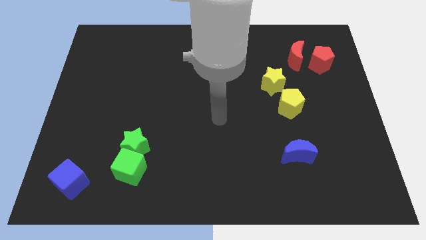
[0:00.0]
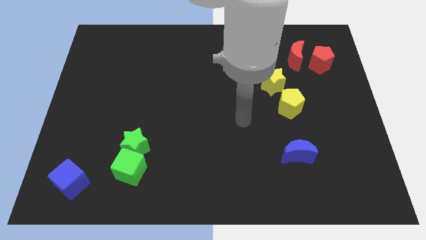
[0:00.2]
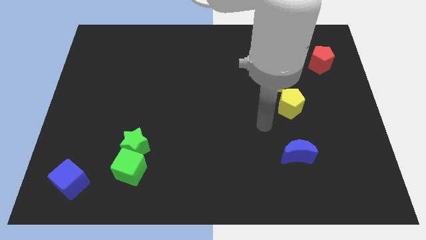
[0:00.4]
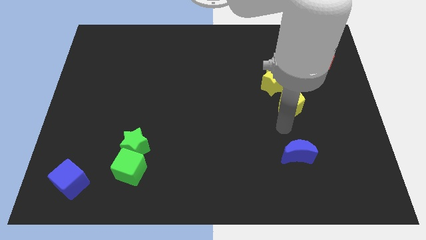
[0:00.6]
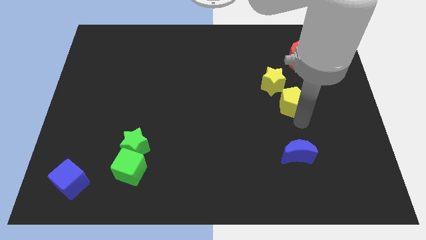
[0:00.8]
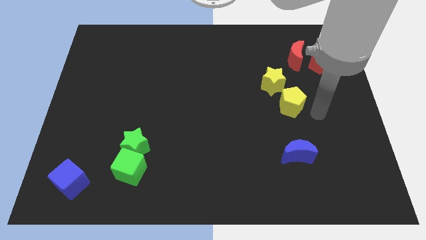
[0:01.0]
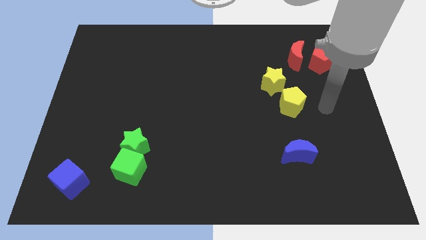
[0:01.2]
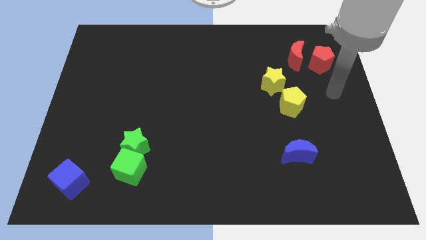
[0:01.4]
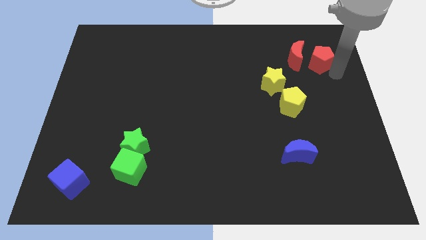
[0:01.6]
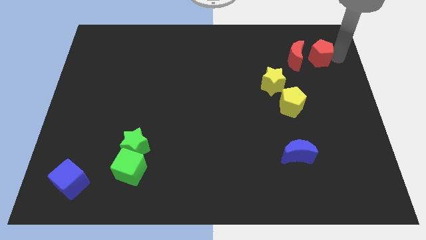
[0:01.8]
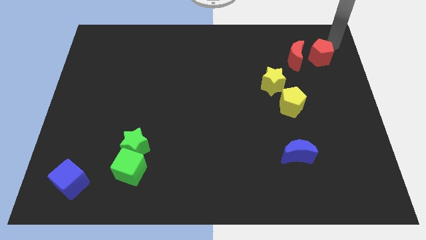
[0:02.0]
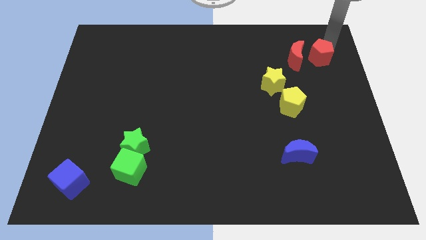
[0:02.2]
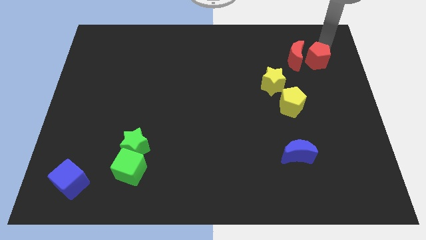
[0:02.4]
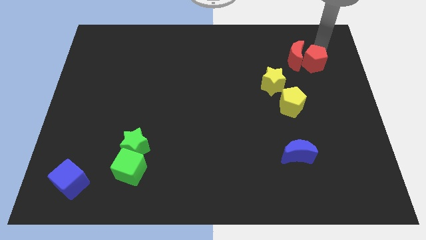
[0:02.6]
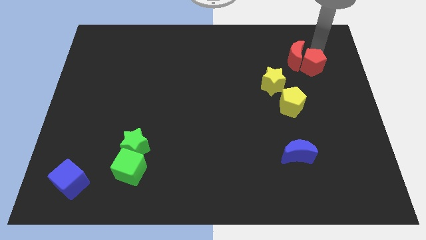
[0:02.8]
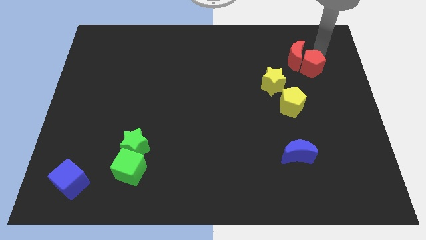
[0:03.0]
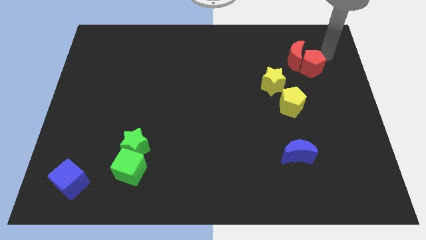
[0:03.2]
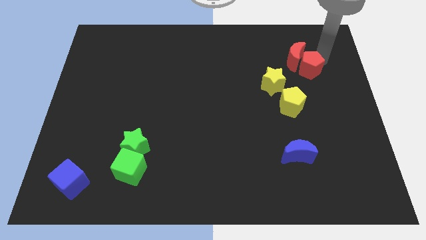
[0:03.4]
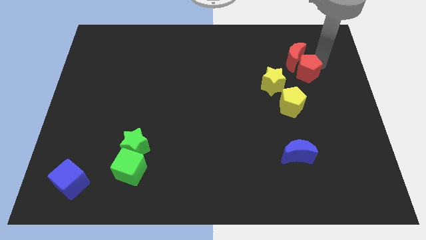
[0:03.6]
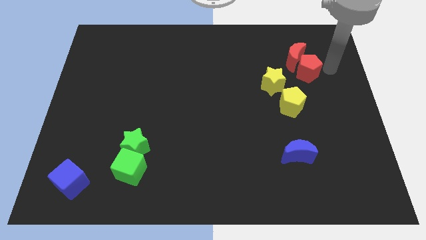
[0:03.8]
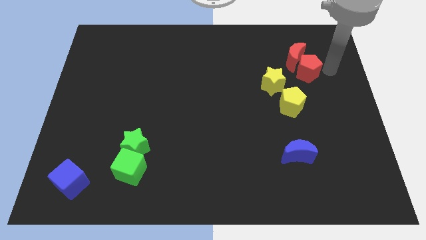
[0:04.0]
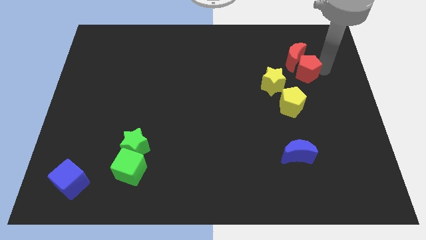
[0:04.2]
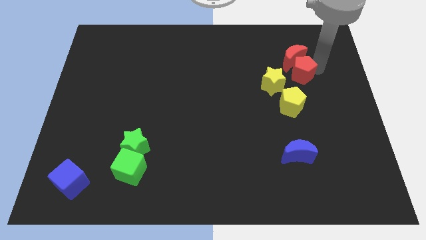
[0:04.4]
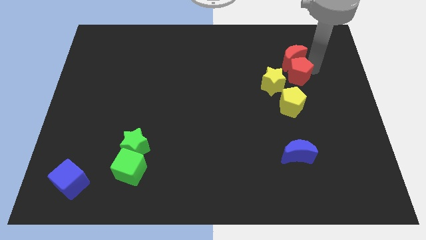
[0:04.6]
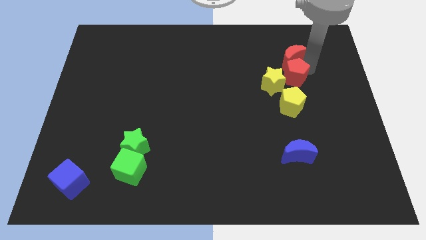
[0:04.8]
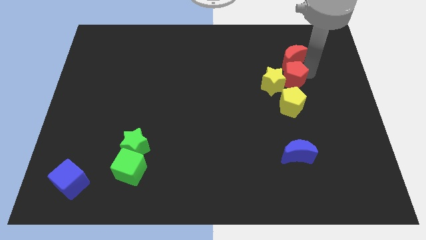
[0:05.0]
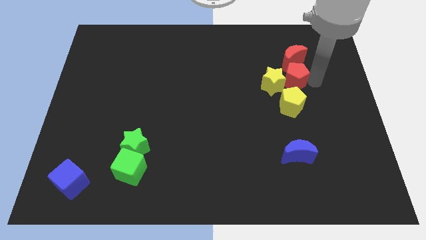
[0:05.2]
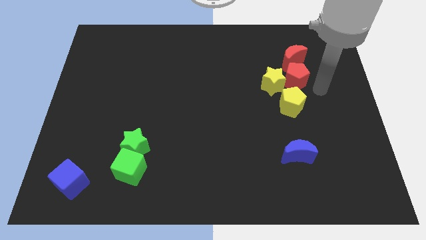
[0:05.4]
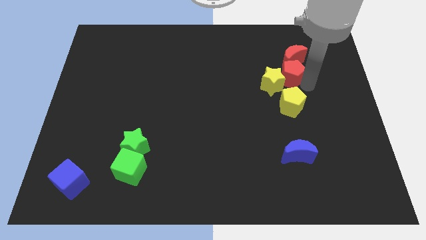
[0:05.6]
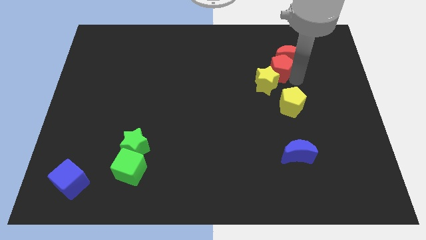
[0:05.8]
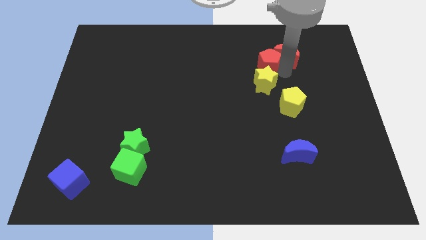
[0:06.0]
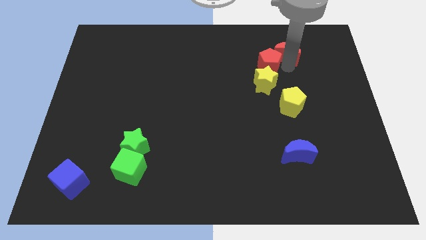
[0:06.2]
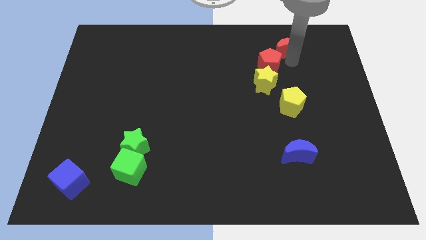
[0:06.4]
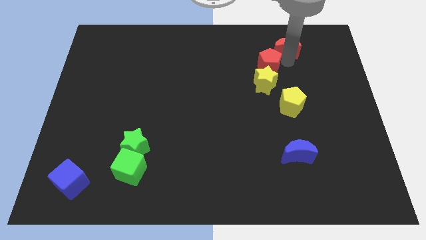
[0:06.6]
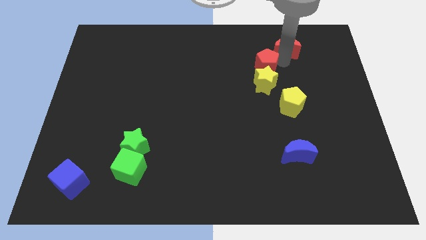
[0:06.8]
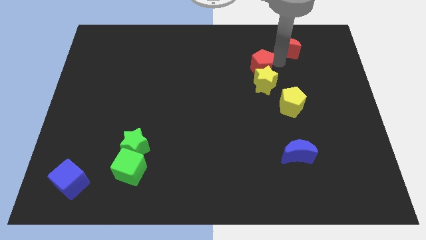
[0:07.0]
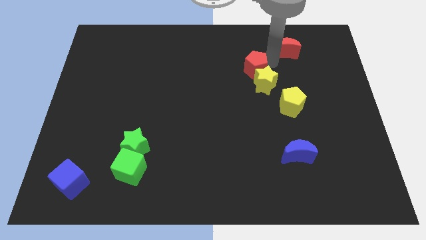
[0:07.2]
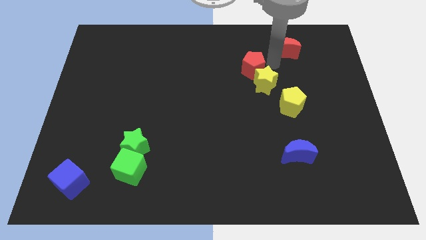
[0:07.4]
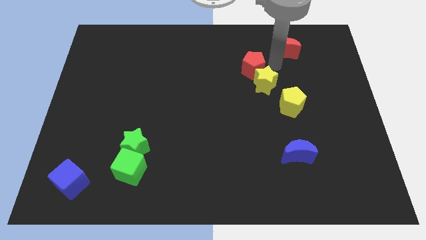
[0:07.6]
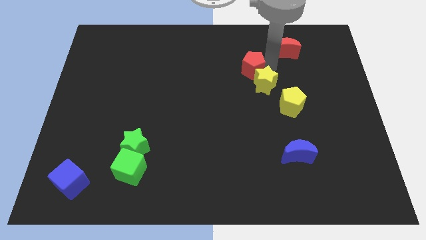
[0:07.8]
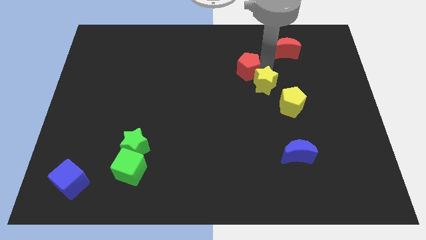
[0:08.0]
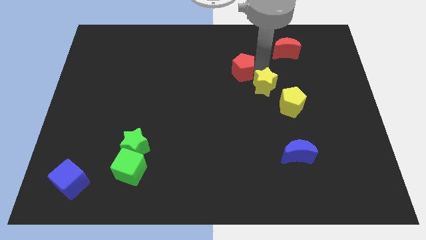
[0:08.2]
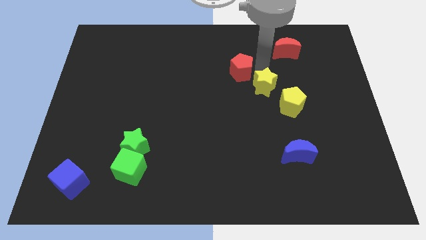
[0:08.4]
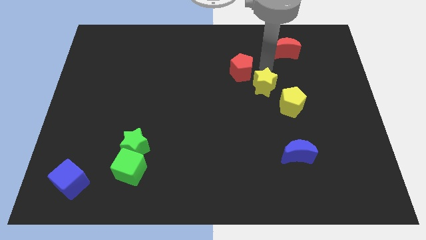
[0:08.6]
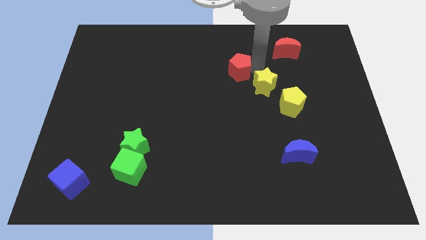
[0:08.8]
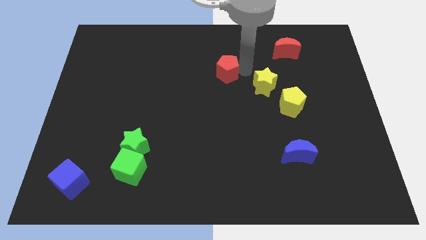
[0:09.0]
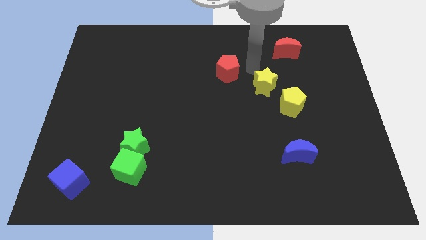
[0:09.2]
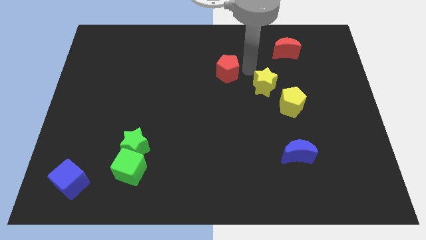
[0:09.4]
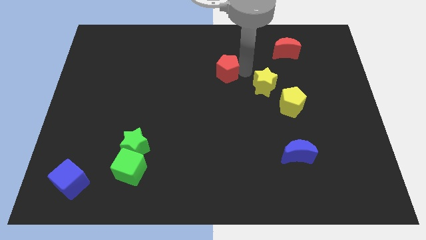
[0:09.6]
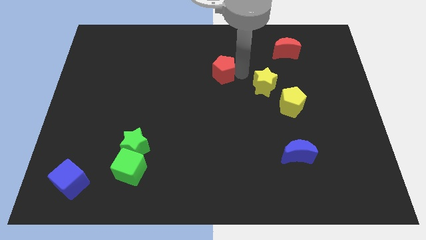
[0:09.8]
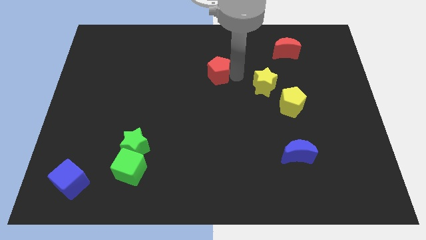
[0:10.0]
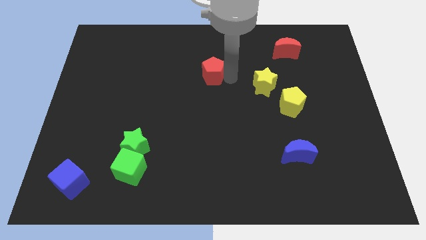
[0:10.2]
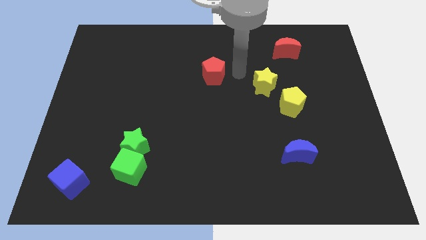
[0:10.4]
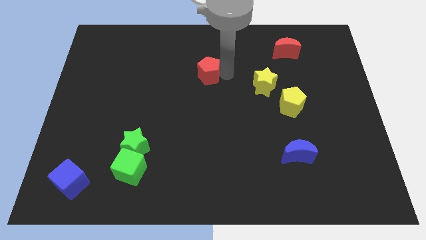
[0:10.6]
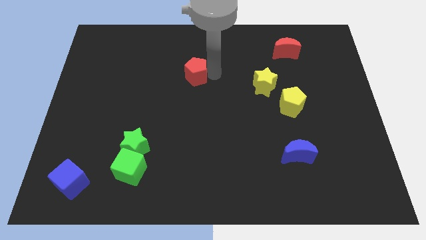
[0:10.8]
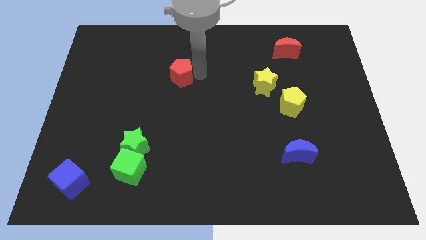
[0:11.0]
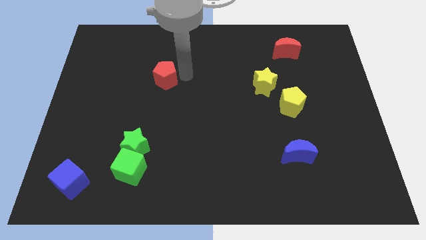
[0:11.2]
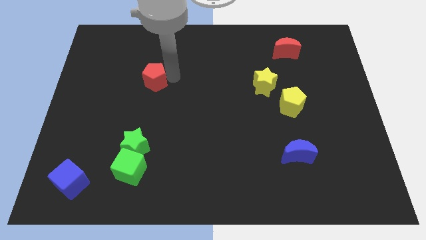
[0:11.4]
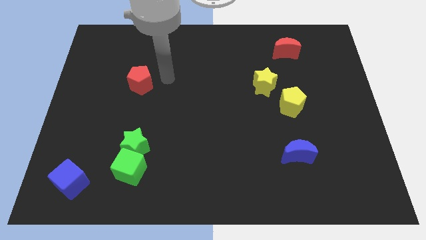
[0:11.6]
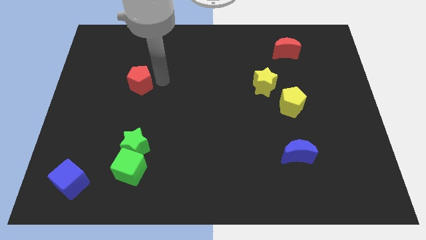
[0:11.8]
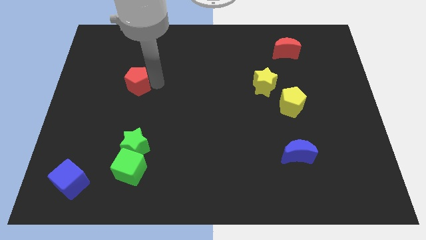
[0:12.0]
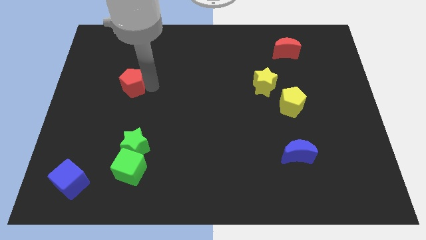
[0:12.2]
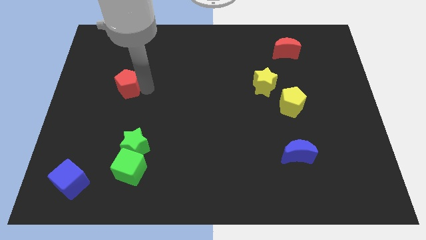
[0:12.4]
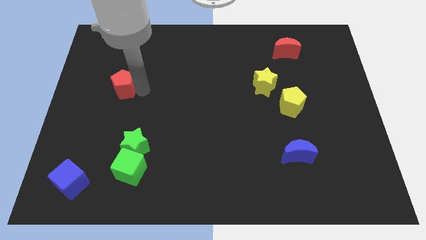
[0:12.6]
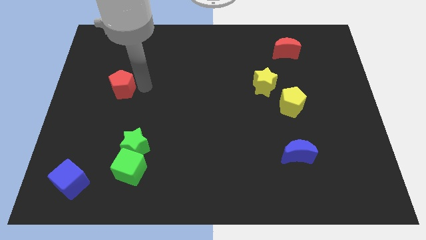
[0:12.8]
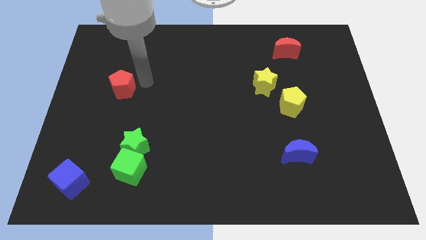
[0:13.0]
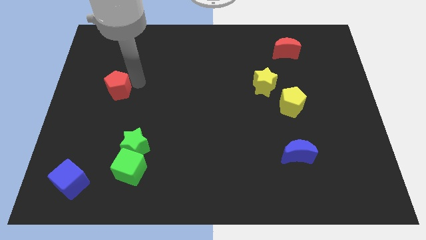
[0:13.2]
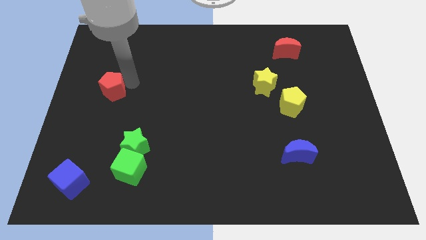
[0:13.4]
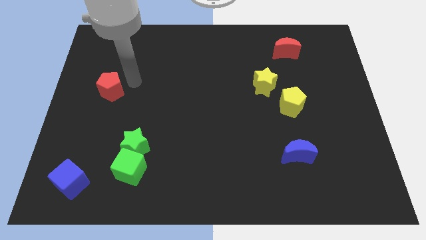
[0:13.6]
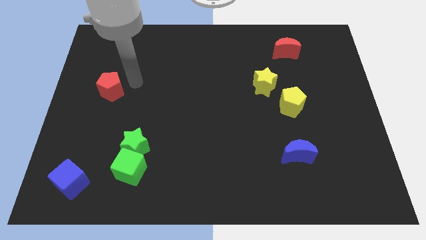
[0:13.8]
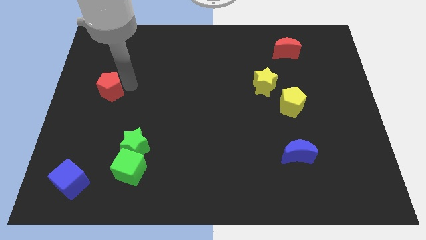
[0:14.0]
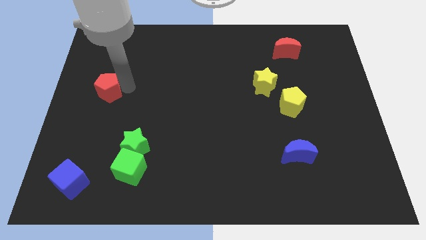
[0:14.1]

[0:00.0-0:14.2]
push the red pentagon to the left side of the board

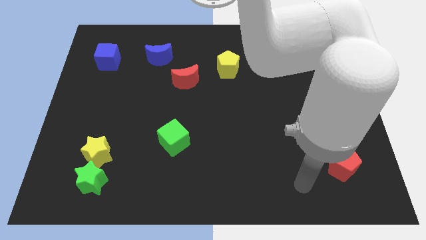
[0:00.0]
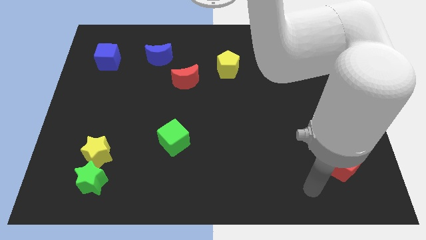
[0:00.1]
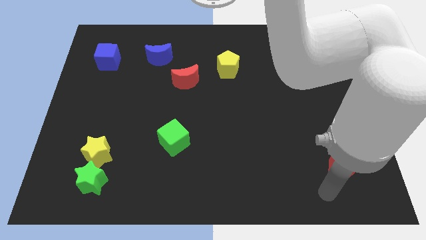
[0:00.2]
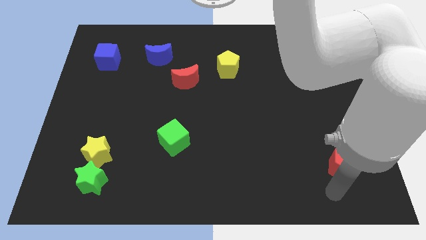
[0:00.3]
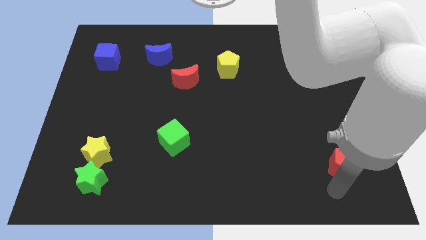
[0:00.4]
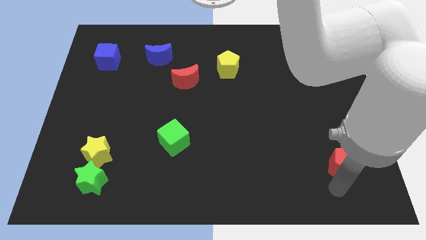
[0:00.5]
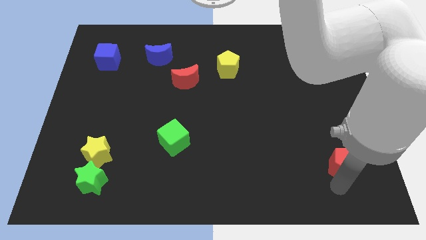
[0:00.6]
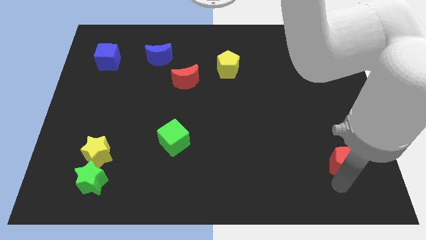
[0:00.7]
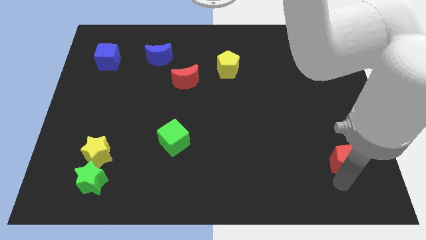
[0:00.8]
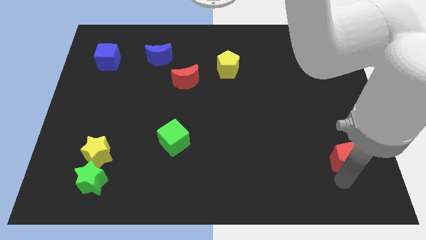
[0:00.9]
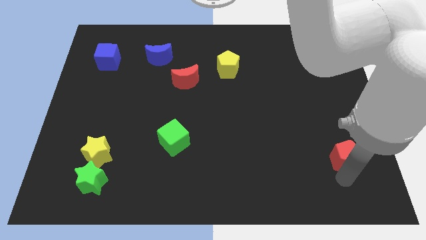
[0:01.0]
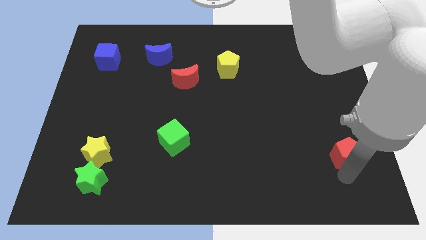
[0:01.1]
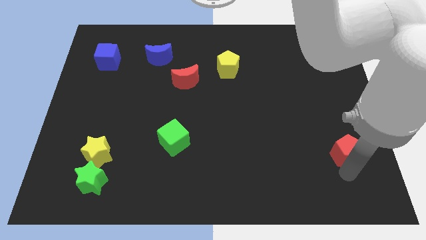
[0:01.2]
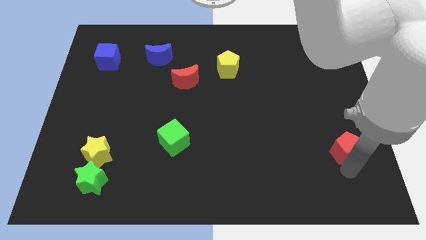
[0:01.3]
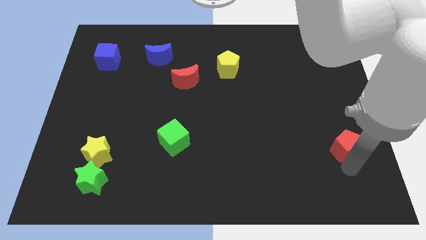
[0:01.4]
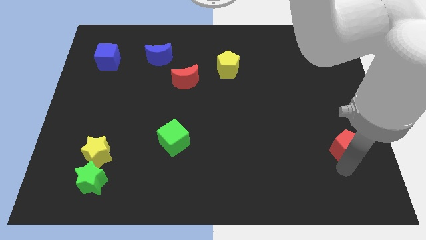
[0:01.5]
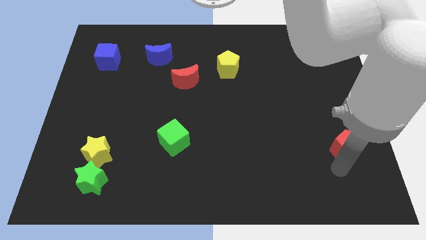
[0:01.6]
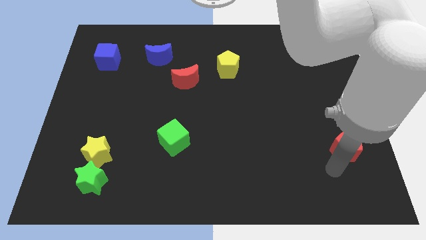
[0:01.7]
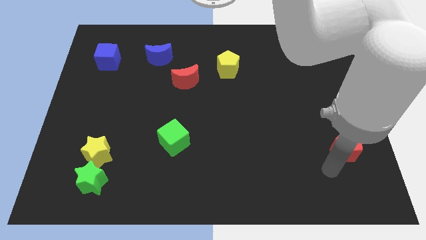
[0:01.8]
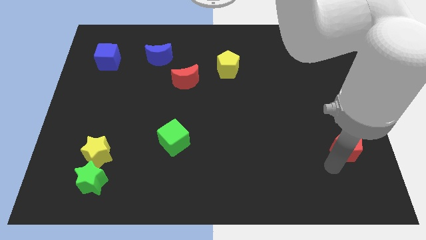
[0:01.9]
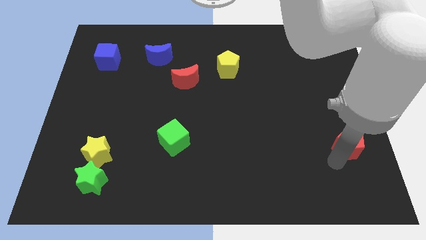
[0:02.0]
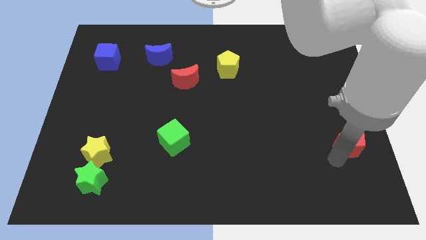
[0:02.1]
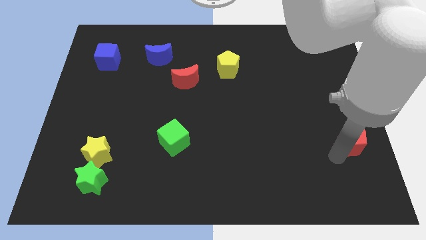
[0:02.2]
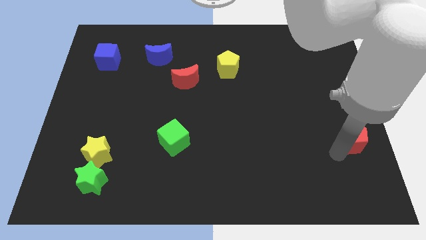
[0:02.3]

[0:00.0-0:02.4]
slide the red pentagon to the center right
